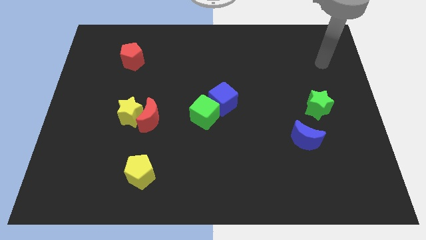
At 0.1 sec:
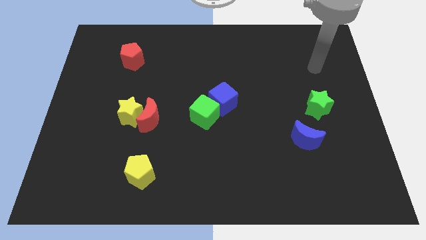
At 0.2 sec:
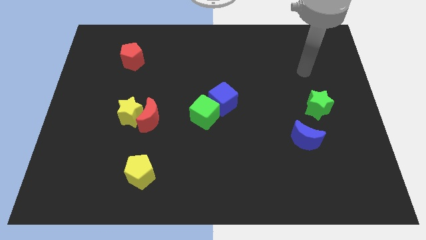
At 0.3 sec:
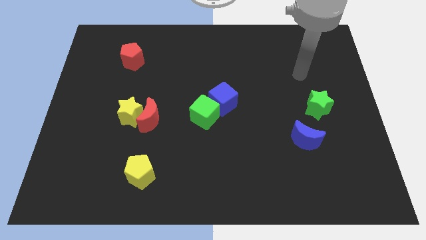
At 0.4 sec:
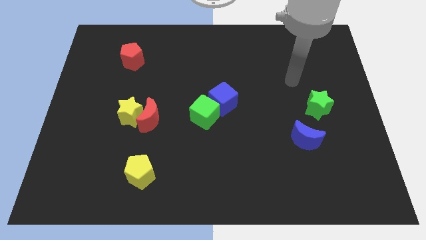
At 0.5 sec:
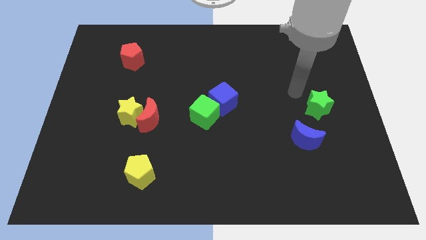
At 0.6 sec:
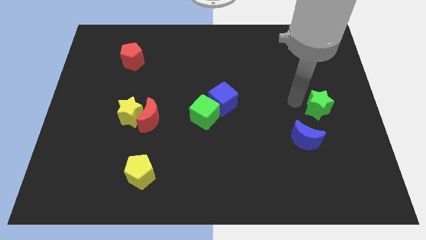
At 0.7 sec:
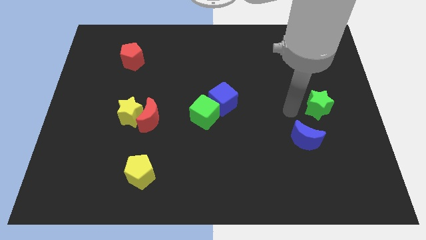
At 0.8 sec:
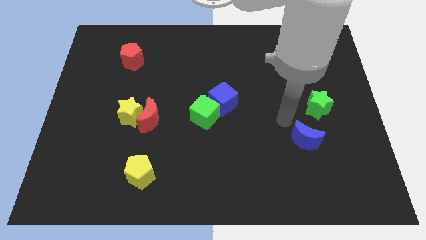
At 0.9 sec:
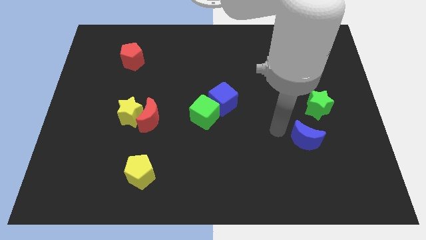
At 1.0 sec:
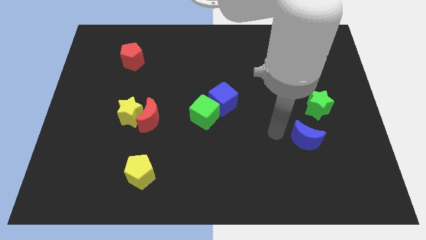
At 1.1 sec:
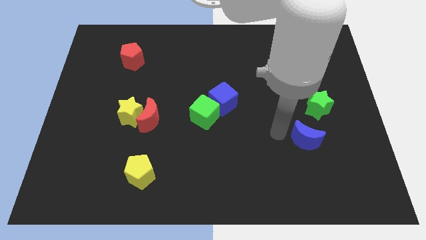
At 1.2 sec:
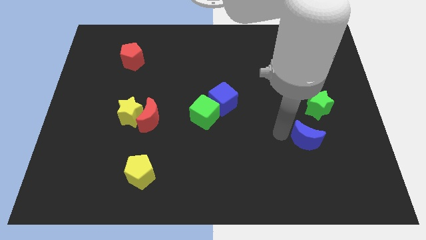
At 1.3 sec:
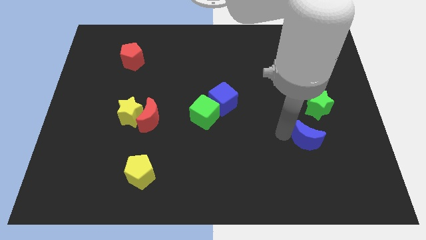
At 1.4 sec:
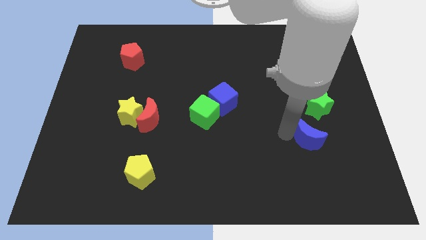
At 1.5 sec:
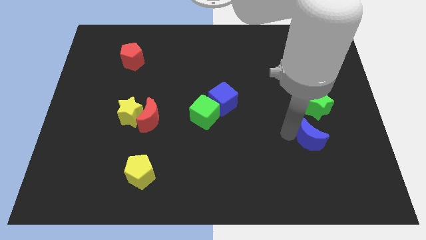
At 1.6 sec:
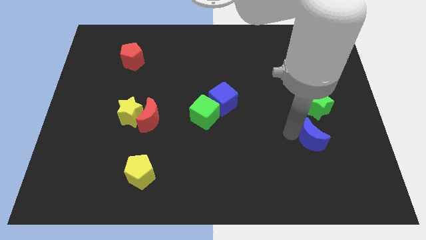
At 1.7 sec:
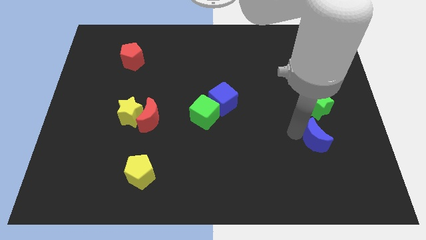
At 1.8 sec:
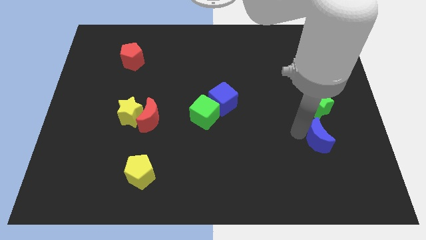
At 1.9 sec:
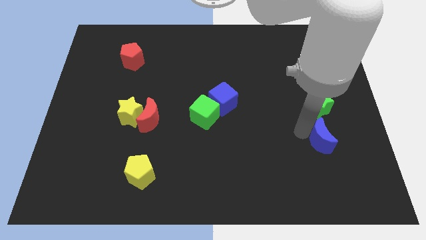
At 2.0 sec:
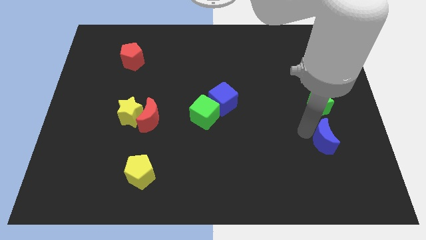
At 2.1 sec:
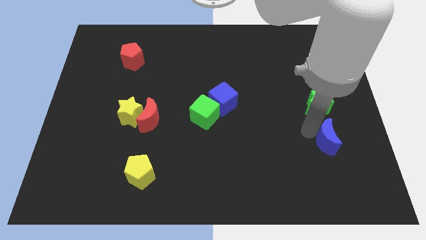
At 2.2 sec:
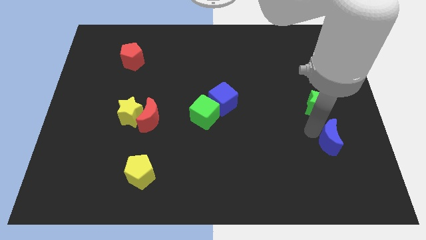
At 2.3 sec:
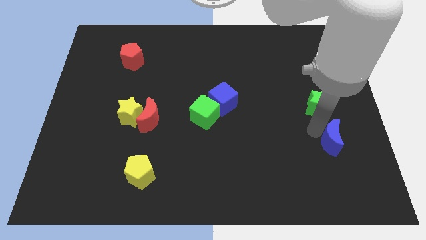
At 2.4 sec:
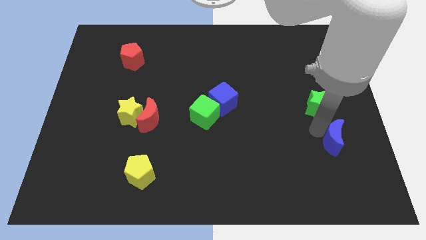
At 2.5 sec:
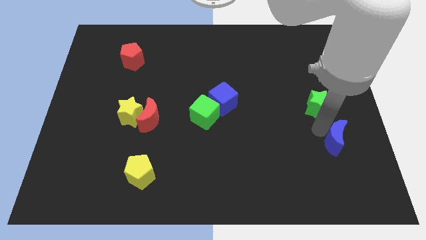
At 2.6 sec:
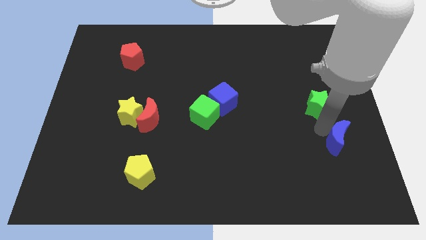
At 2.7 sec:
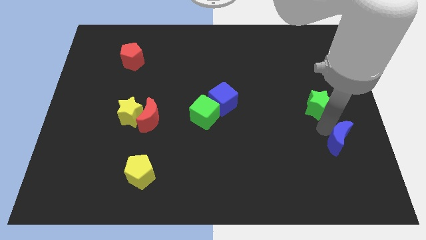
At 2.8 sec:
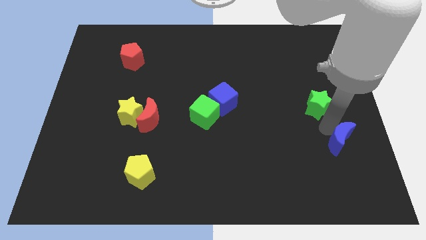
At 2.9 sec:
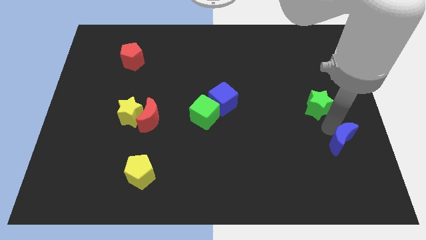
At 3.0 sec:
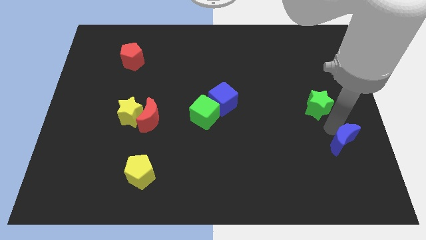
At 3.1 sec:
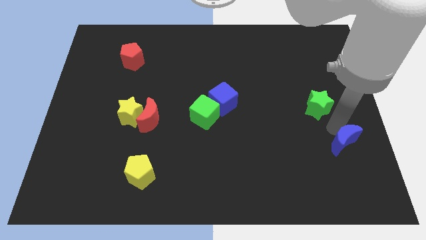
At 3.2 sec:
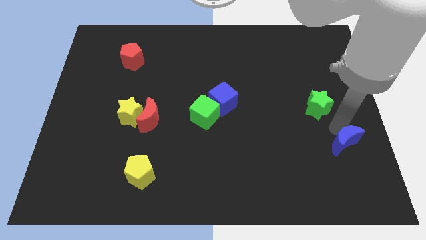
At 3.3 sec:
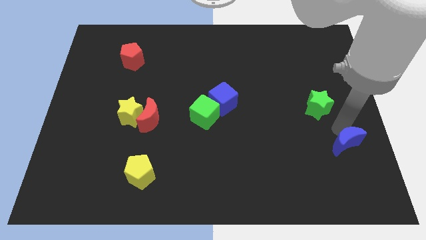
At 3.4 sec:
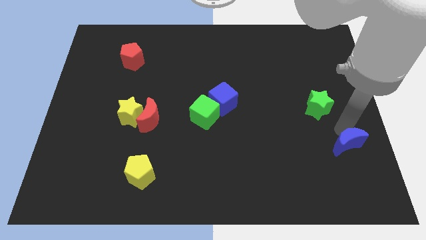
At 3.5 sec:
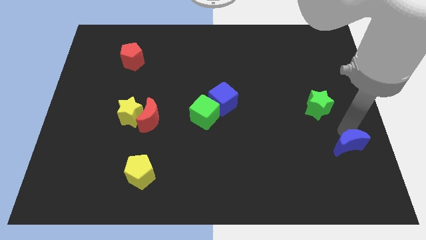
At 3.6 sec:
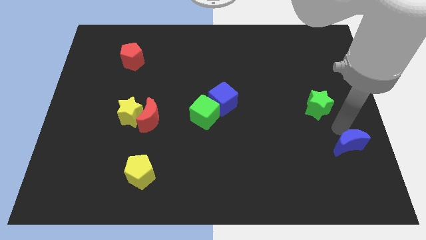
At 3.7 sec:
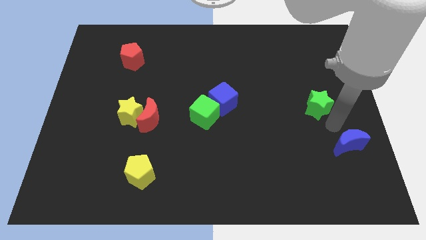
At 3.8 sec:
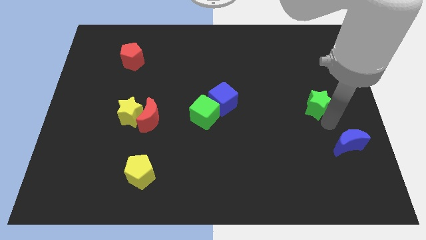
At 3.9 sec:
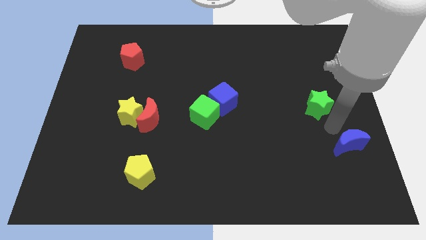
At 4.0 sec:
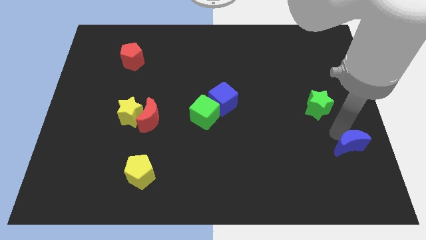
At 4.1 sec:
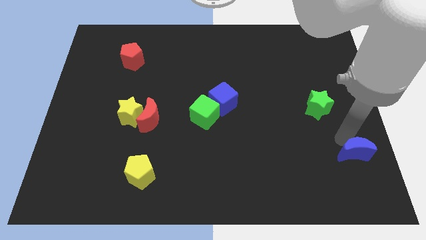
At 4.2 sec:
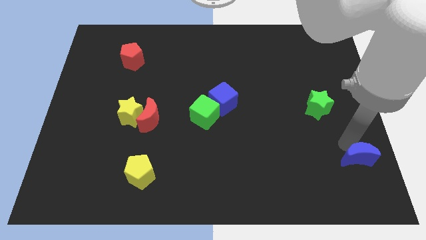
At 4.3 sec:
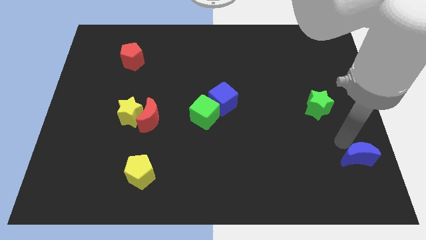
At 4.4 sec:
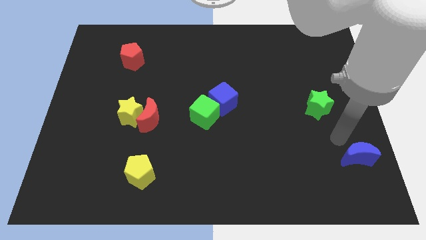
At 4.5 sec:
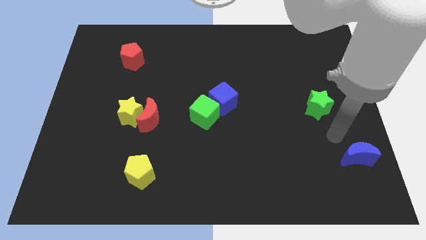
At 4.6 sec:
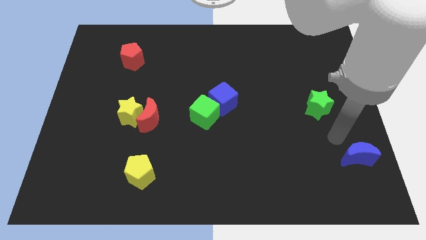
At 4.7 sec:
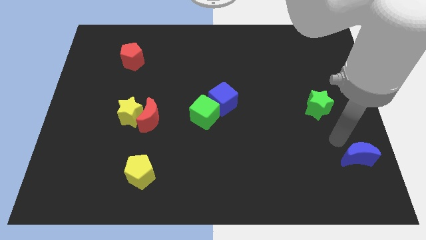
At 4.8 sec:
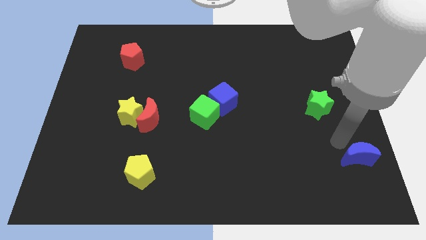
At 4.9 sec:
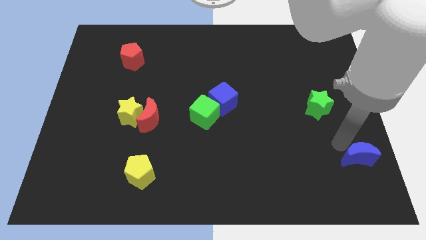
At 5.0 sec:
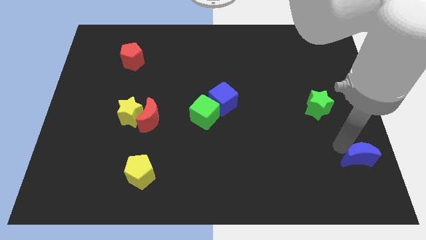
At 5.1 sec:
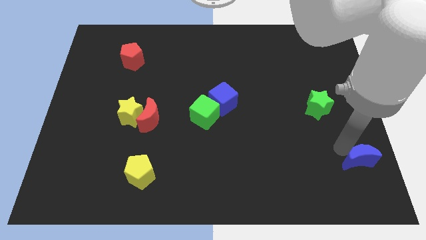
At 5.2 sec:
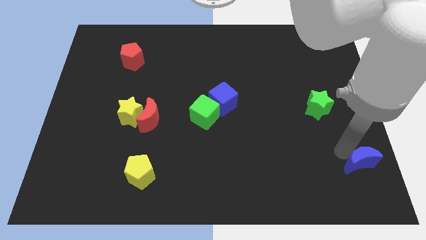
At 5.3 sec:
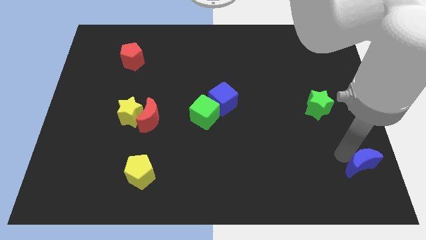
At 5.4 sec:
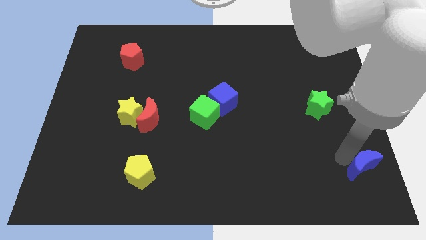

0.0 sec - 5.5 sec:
put the blue moon to the bottom right corner

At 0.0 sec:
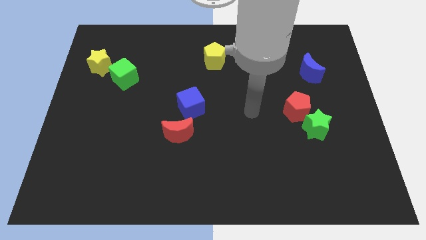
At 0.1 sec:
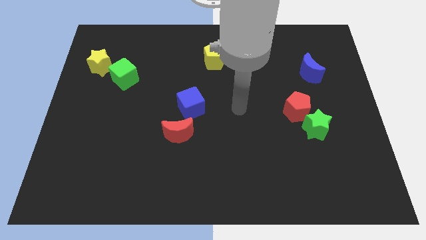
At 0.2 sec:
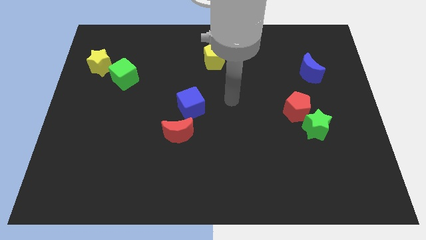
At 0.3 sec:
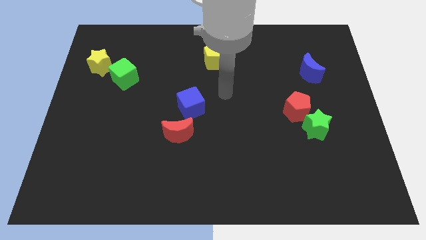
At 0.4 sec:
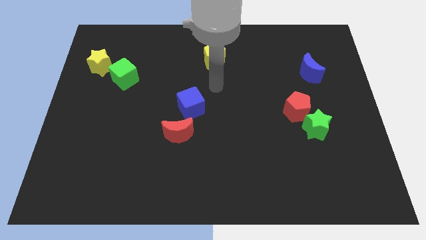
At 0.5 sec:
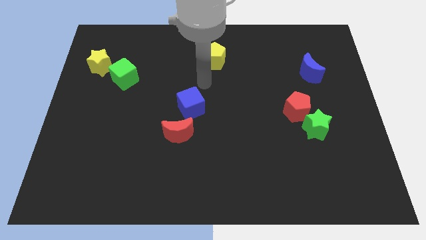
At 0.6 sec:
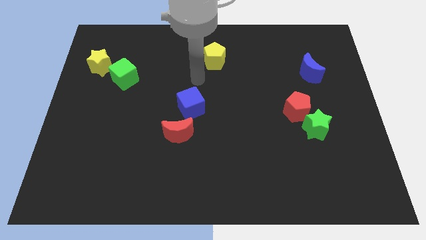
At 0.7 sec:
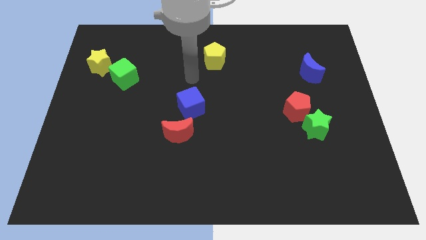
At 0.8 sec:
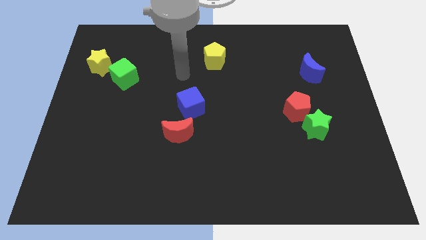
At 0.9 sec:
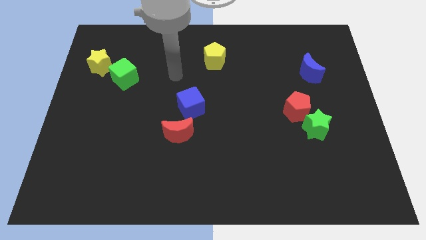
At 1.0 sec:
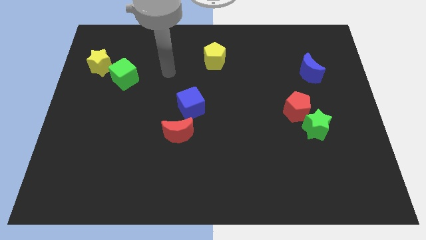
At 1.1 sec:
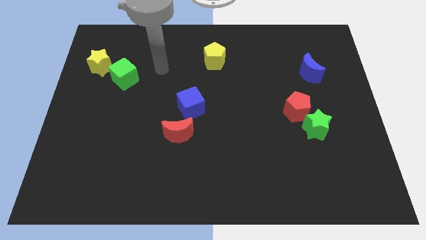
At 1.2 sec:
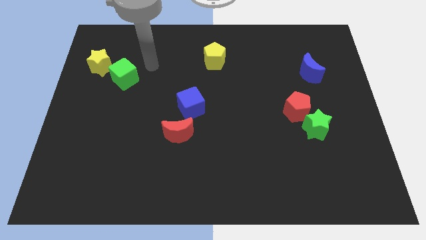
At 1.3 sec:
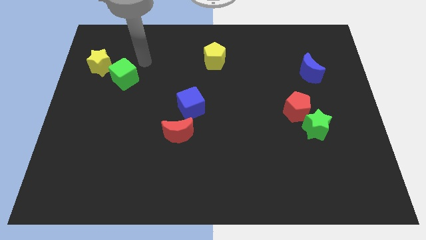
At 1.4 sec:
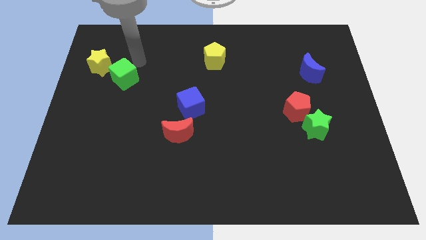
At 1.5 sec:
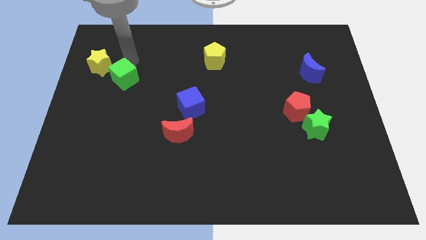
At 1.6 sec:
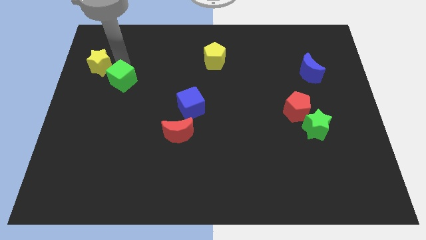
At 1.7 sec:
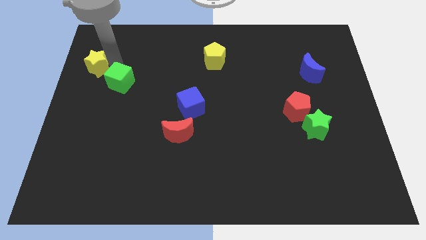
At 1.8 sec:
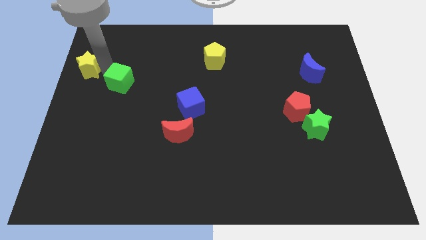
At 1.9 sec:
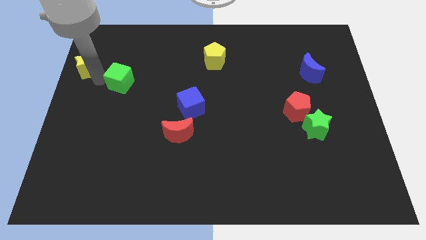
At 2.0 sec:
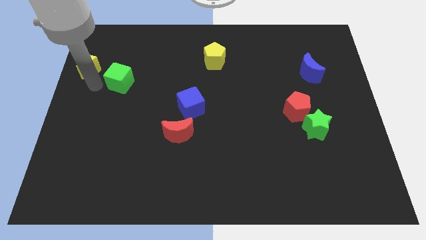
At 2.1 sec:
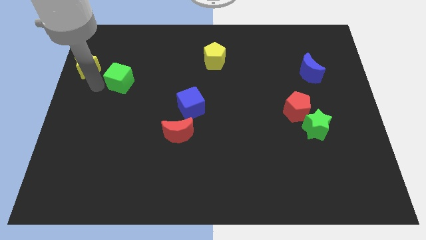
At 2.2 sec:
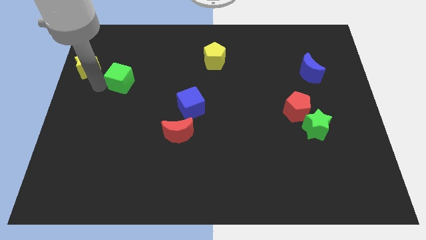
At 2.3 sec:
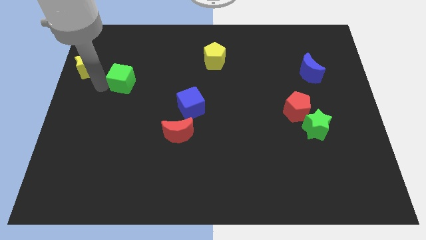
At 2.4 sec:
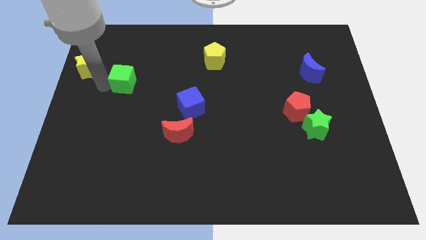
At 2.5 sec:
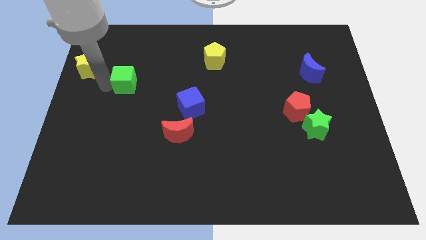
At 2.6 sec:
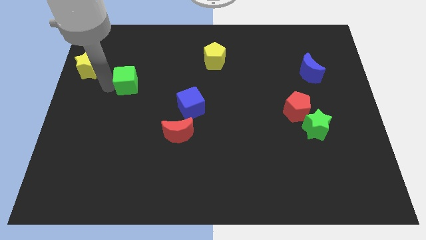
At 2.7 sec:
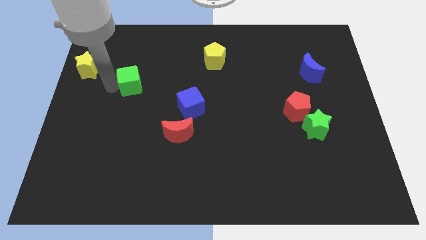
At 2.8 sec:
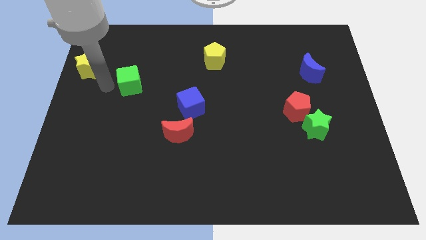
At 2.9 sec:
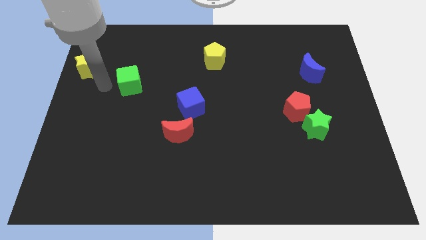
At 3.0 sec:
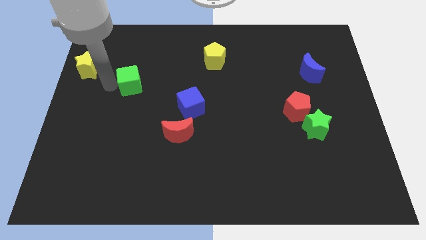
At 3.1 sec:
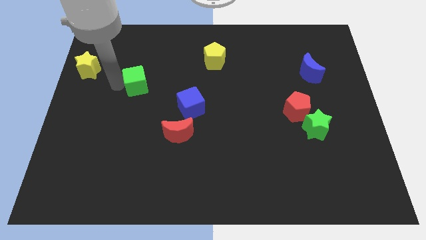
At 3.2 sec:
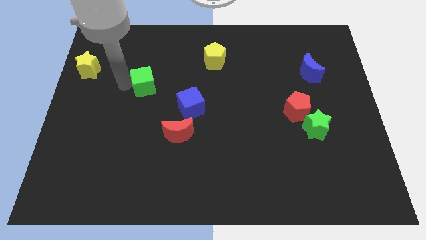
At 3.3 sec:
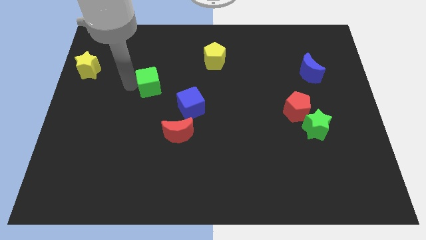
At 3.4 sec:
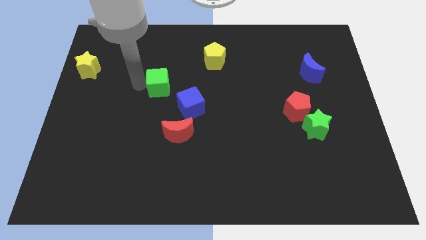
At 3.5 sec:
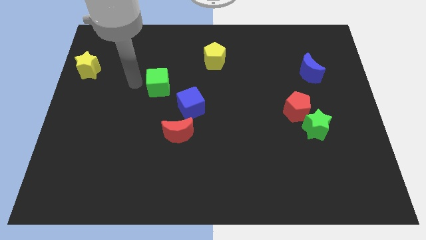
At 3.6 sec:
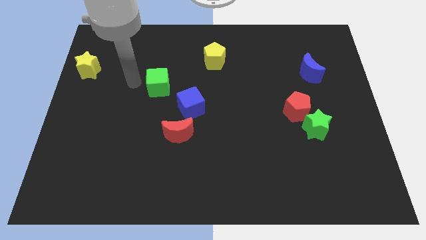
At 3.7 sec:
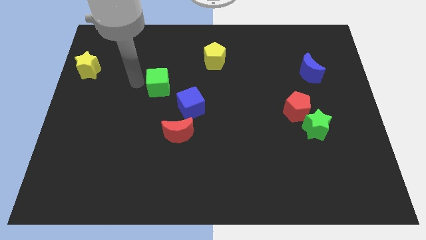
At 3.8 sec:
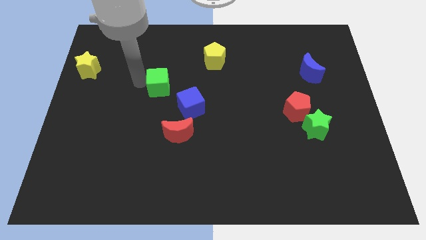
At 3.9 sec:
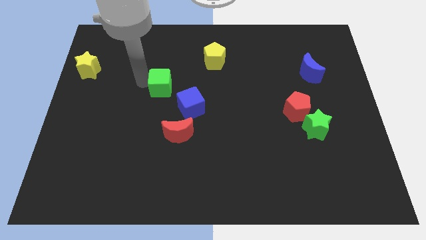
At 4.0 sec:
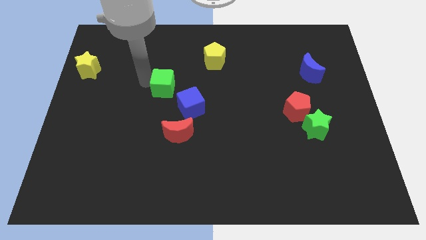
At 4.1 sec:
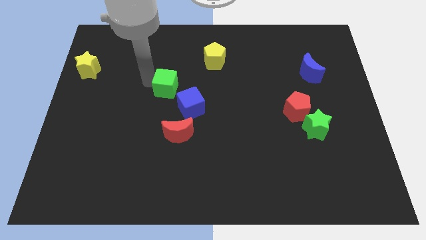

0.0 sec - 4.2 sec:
slide the green cube to the center of the board
